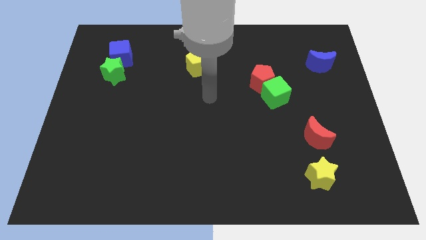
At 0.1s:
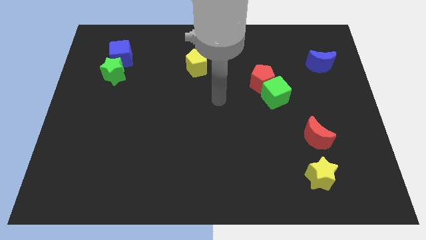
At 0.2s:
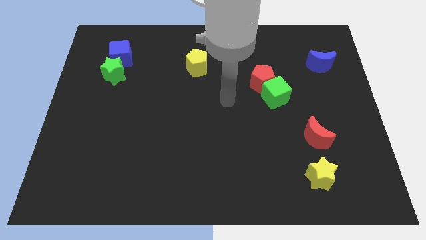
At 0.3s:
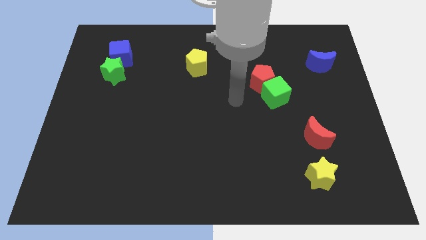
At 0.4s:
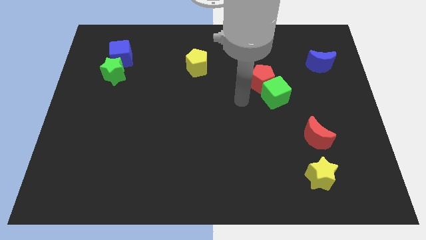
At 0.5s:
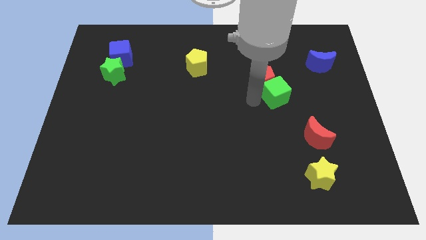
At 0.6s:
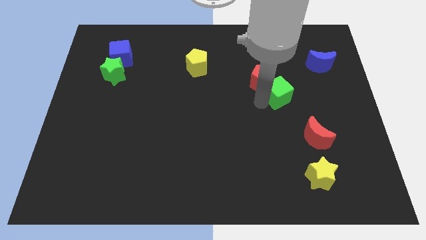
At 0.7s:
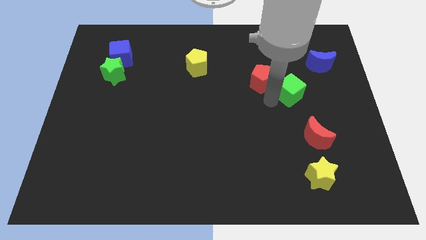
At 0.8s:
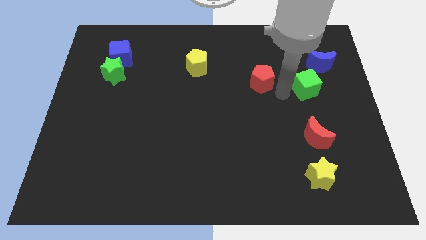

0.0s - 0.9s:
separate the red pentagon from the green cube

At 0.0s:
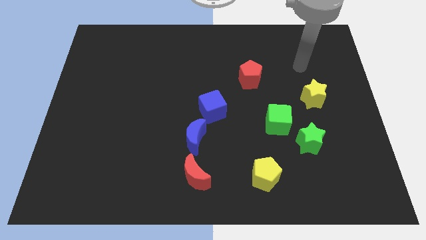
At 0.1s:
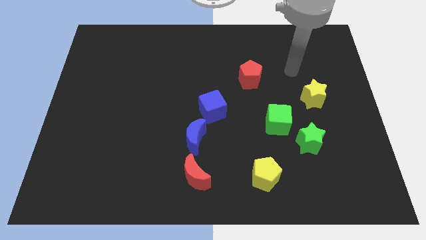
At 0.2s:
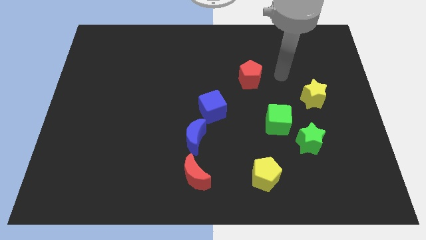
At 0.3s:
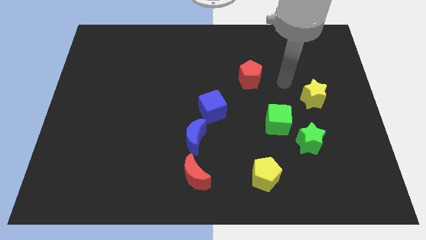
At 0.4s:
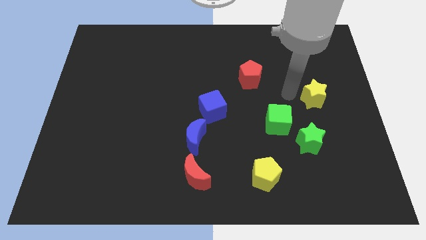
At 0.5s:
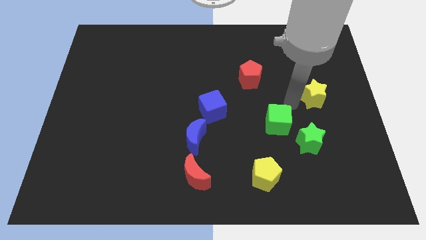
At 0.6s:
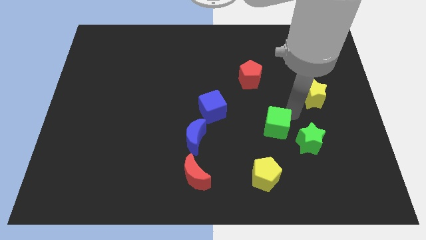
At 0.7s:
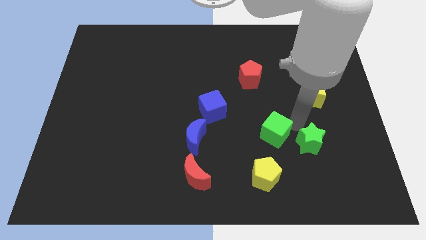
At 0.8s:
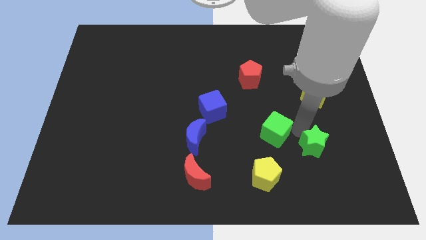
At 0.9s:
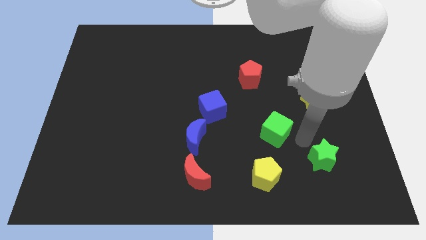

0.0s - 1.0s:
pull the green cube apart from the green star

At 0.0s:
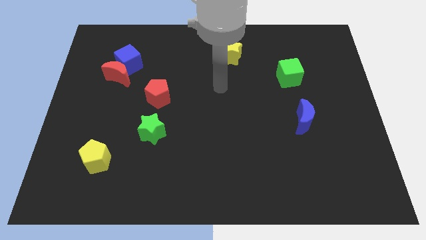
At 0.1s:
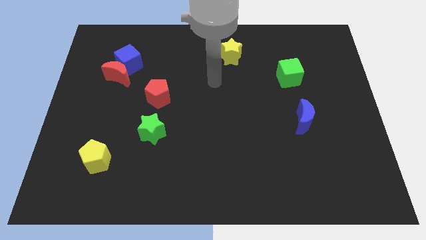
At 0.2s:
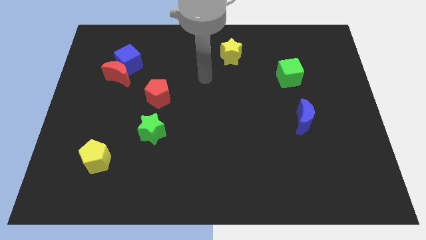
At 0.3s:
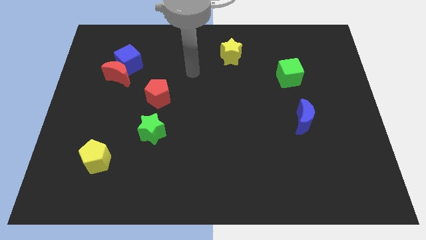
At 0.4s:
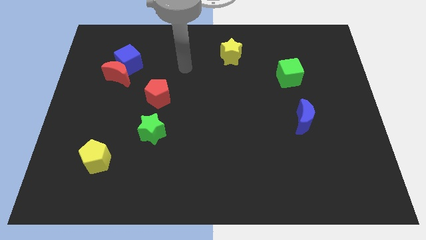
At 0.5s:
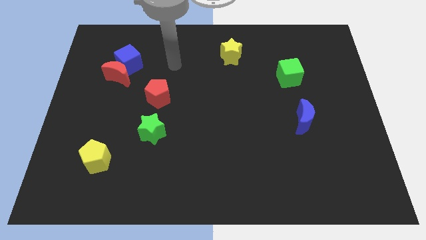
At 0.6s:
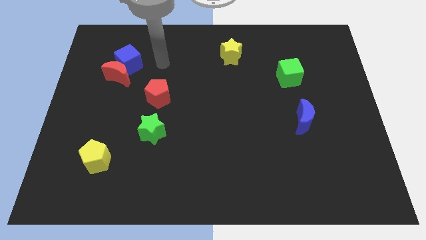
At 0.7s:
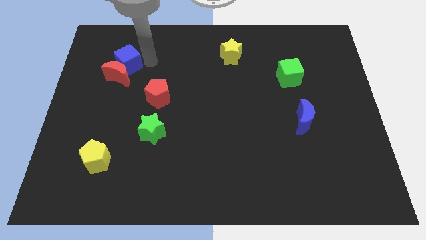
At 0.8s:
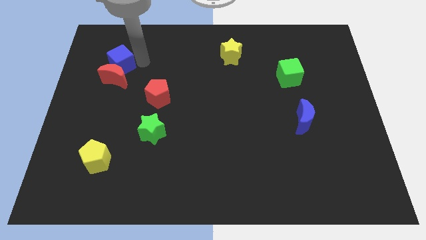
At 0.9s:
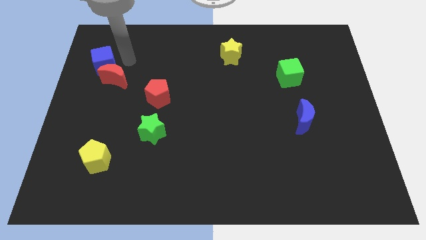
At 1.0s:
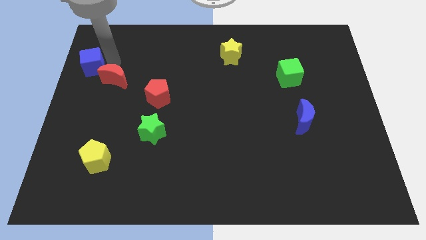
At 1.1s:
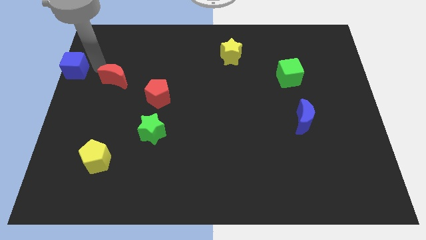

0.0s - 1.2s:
move the red moon away from the blue cube

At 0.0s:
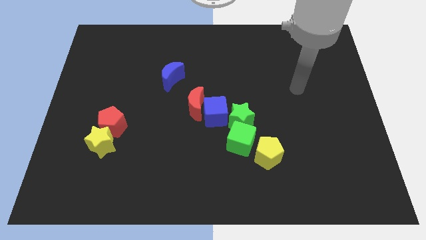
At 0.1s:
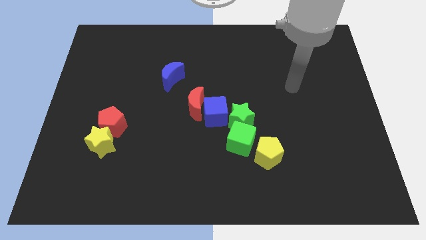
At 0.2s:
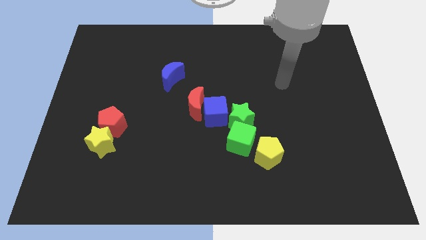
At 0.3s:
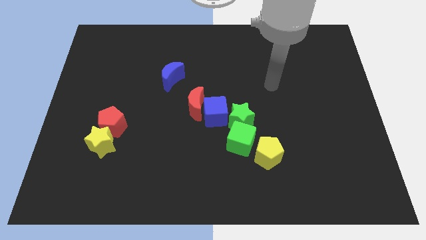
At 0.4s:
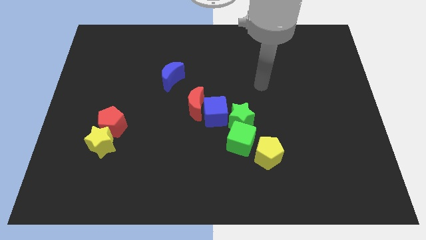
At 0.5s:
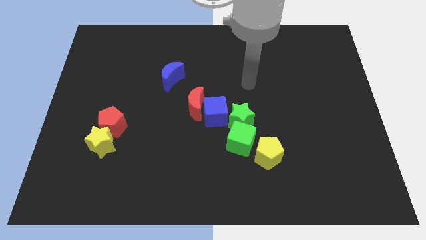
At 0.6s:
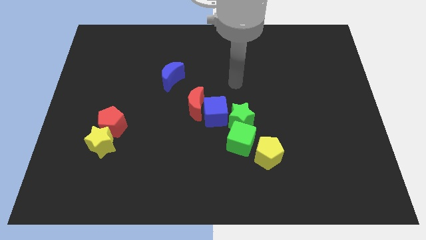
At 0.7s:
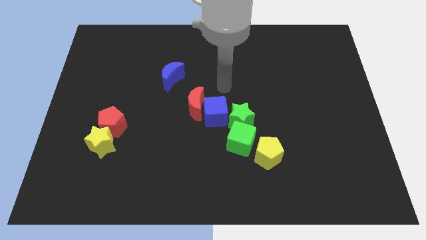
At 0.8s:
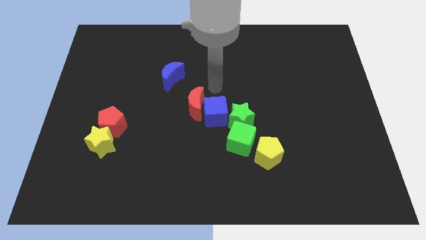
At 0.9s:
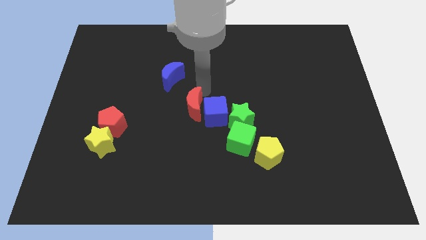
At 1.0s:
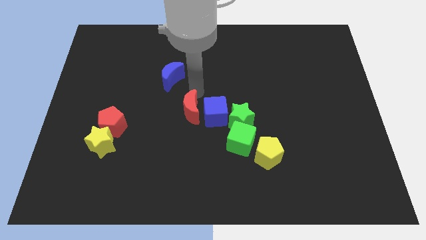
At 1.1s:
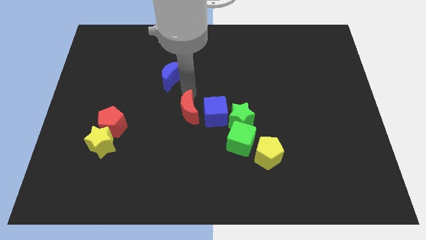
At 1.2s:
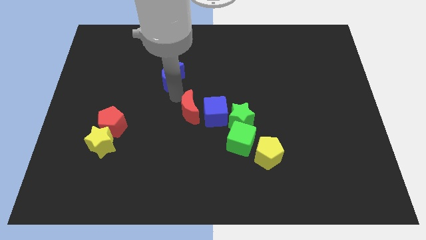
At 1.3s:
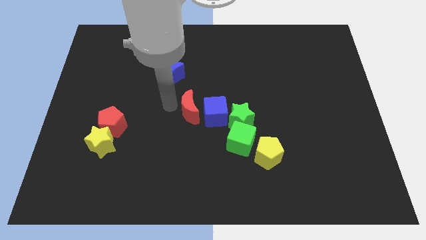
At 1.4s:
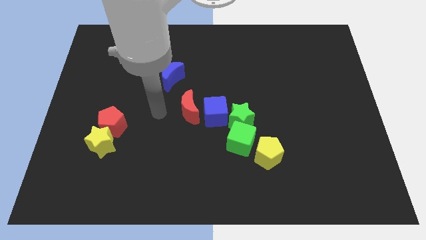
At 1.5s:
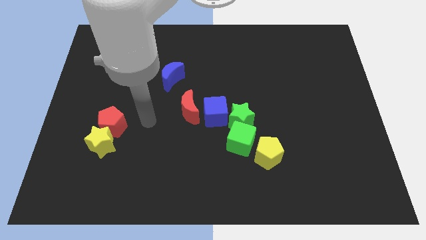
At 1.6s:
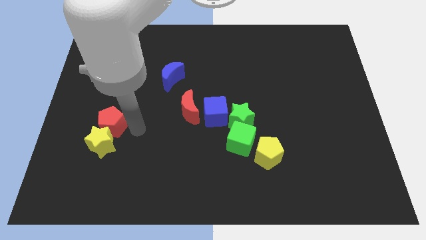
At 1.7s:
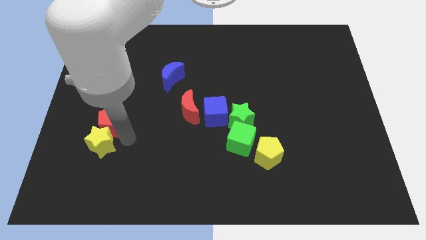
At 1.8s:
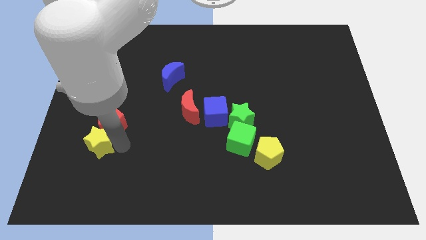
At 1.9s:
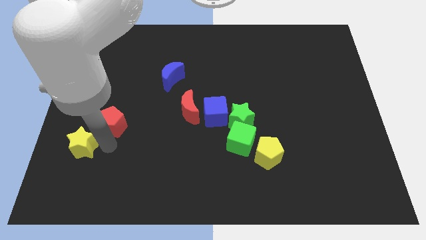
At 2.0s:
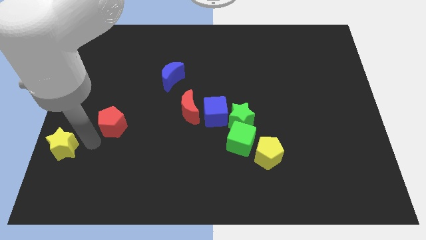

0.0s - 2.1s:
separate the red pentagon from the yellow star

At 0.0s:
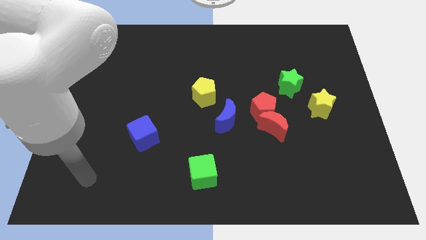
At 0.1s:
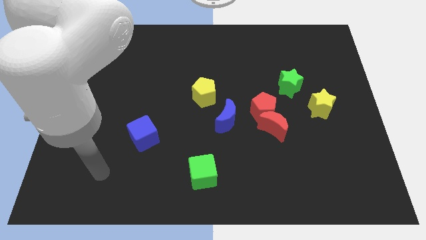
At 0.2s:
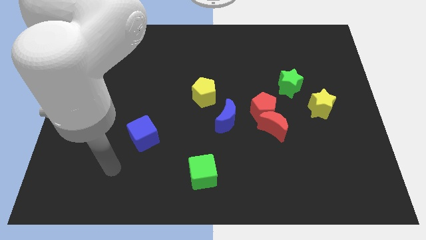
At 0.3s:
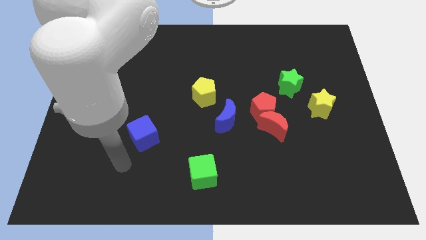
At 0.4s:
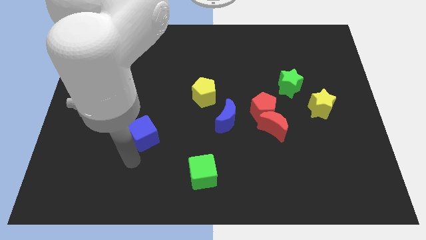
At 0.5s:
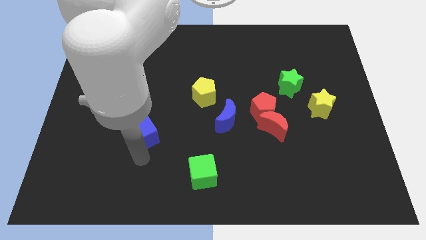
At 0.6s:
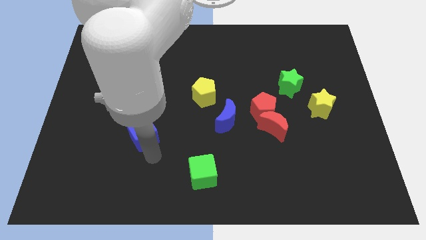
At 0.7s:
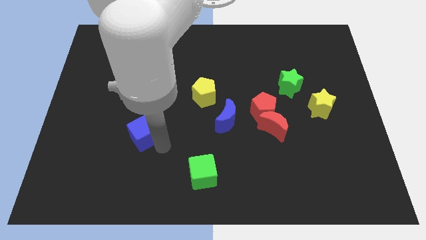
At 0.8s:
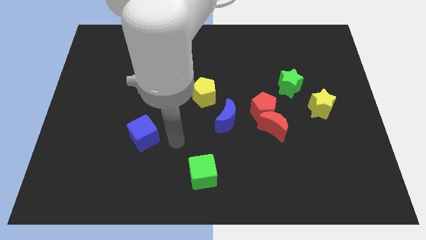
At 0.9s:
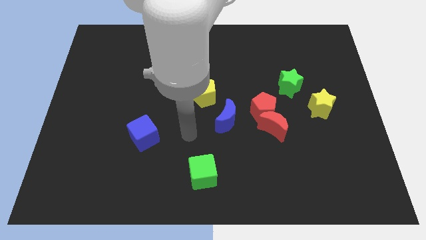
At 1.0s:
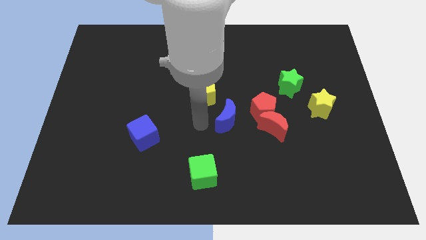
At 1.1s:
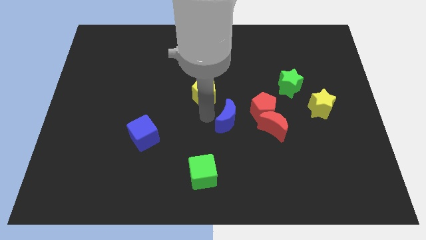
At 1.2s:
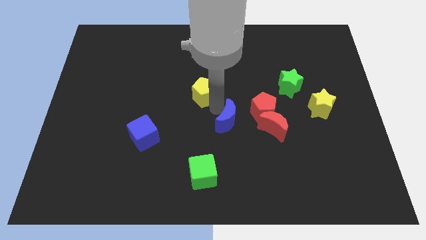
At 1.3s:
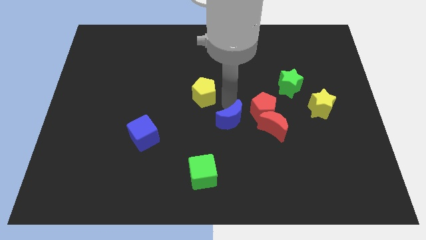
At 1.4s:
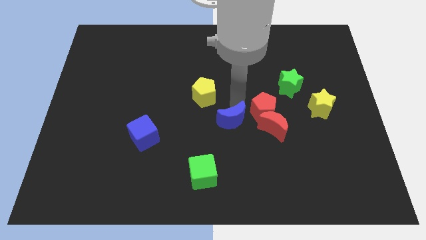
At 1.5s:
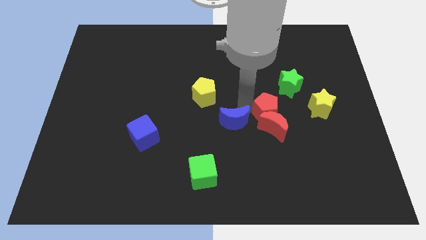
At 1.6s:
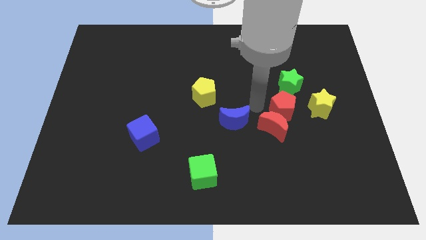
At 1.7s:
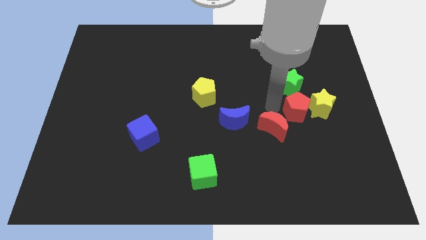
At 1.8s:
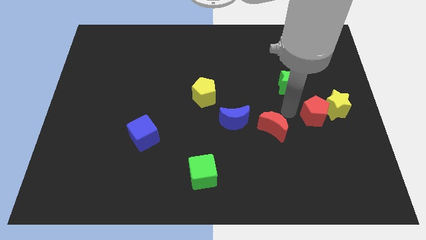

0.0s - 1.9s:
separate the red moon from the red pentagon

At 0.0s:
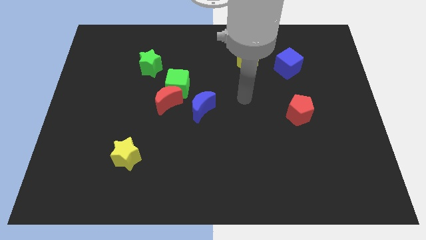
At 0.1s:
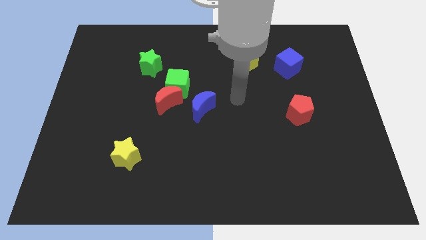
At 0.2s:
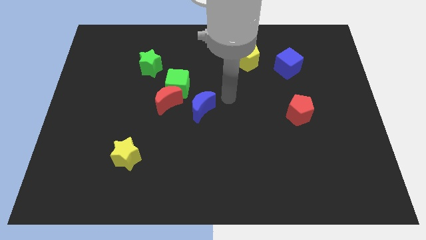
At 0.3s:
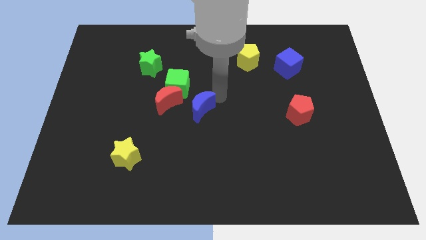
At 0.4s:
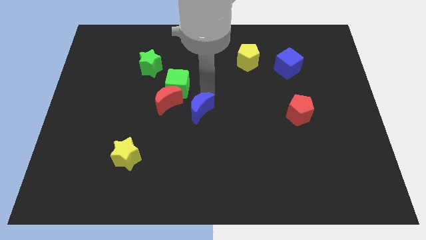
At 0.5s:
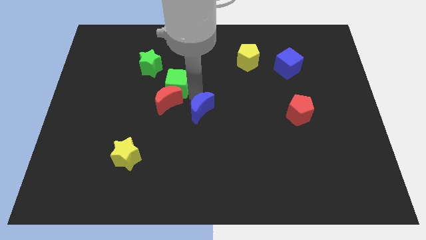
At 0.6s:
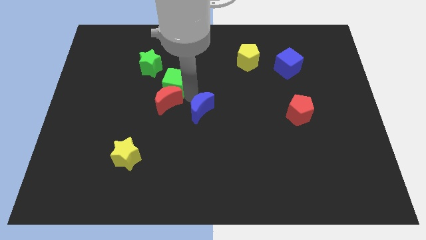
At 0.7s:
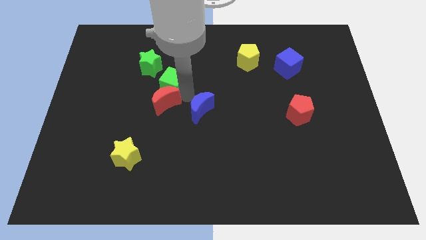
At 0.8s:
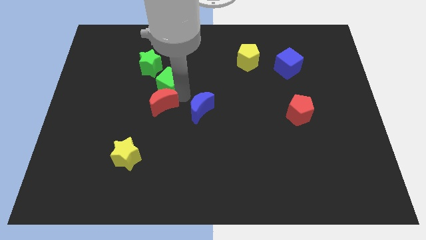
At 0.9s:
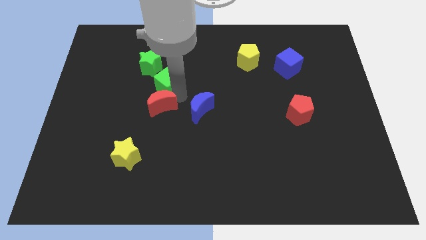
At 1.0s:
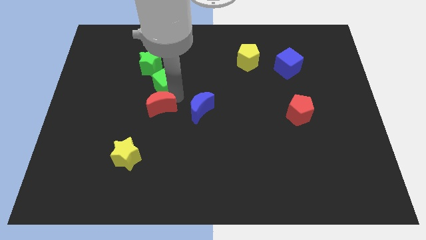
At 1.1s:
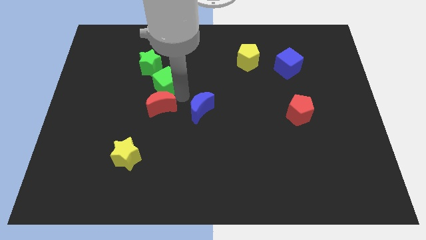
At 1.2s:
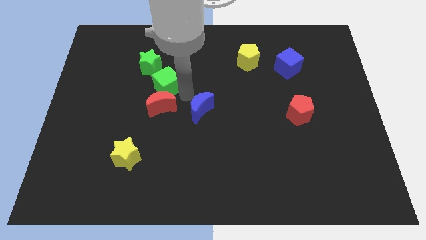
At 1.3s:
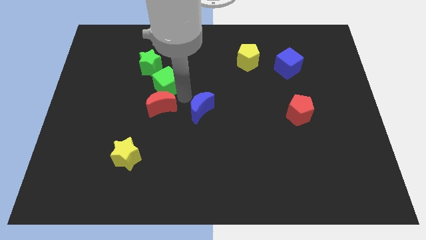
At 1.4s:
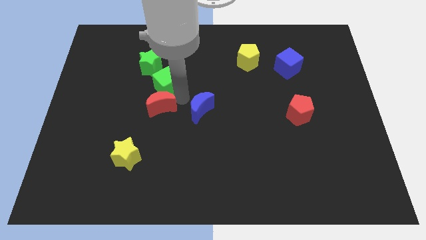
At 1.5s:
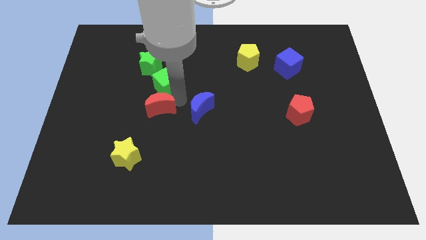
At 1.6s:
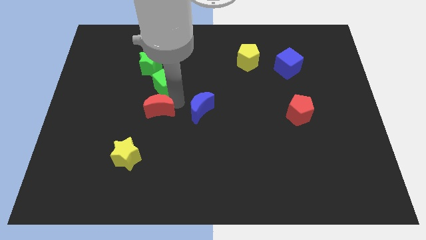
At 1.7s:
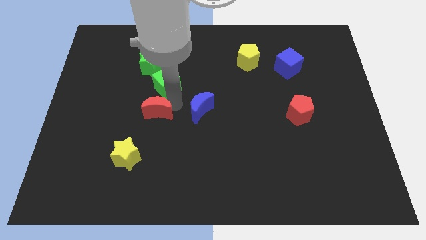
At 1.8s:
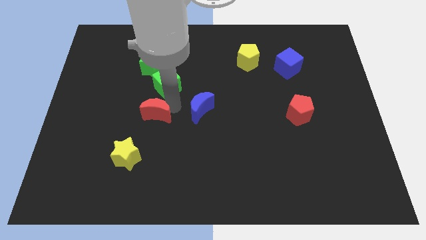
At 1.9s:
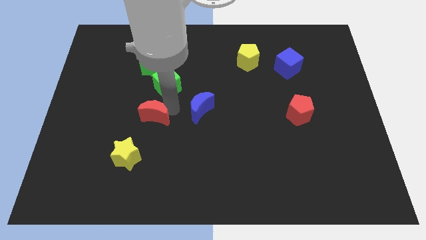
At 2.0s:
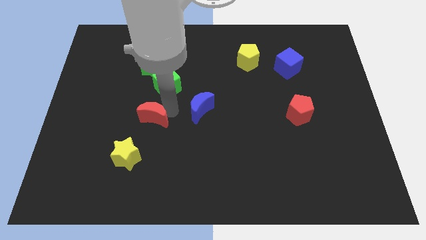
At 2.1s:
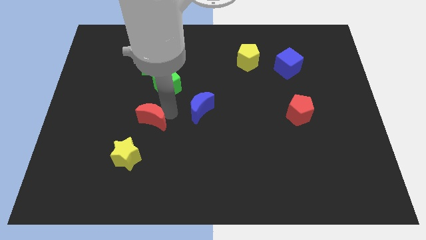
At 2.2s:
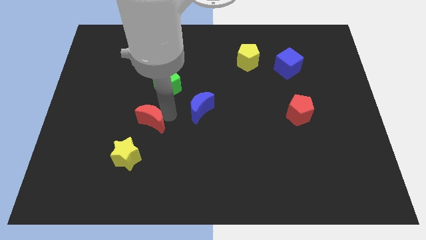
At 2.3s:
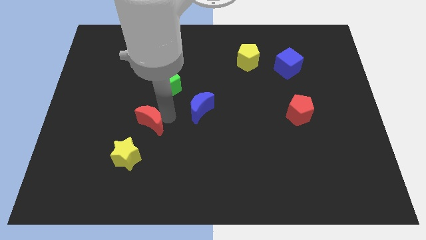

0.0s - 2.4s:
pull the red moon apart from the green cube and blue moon
